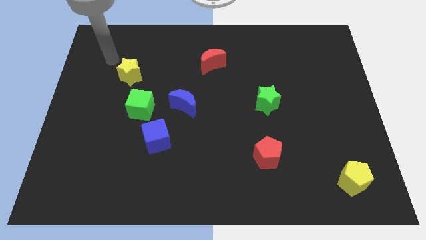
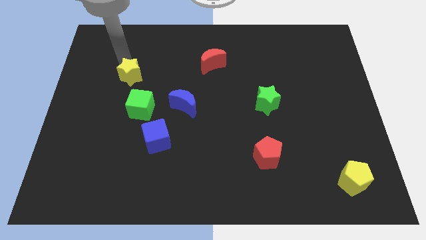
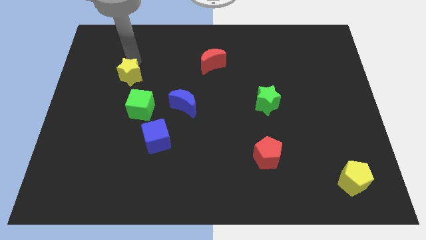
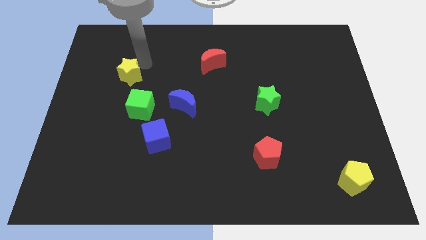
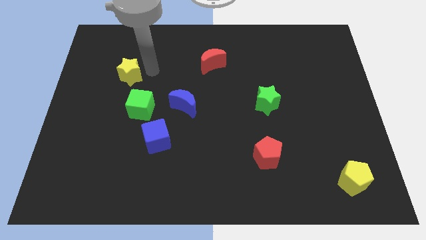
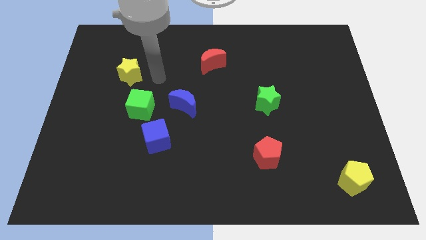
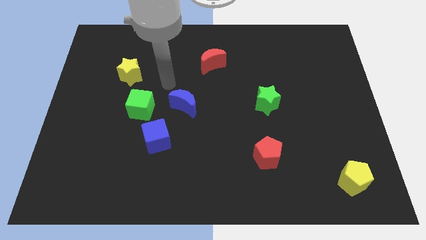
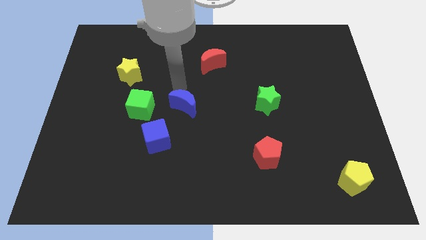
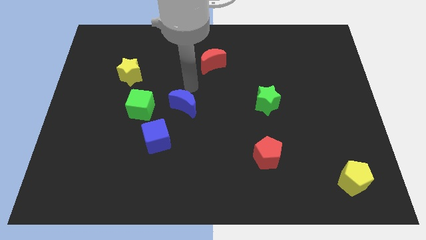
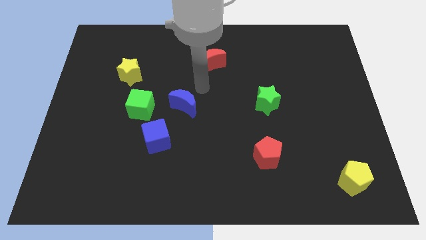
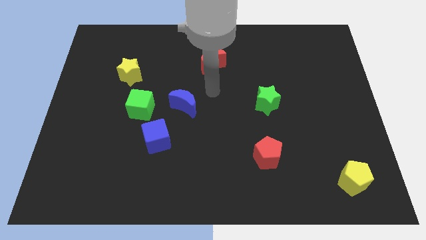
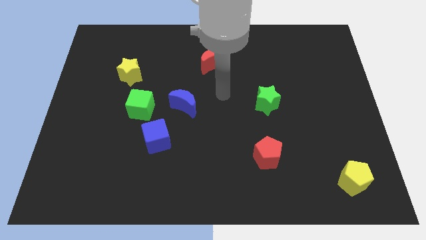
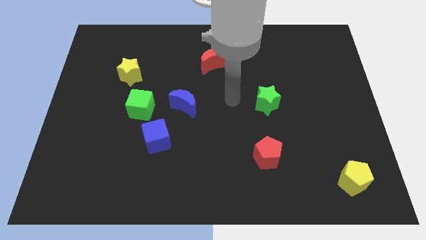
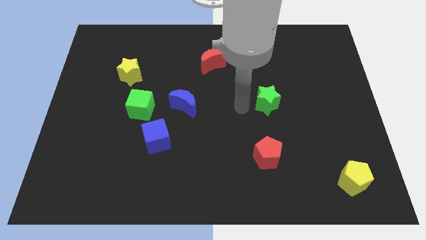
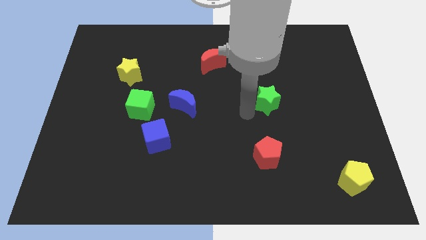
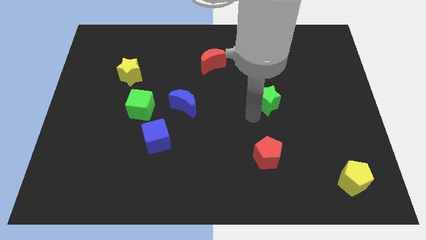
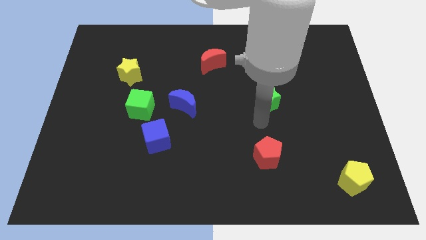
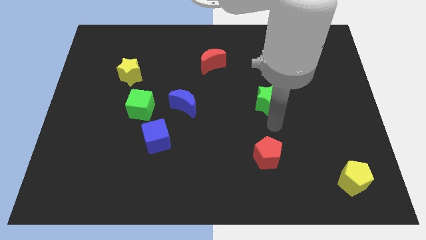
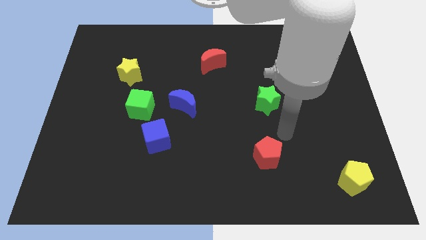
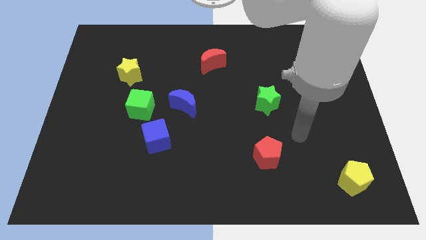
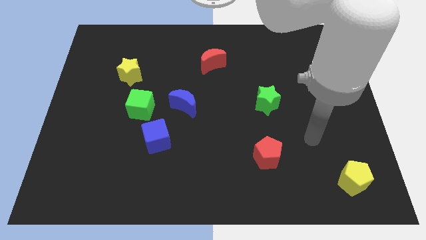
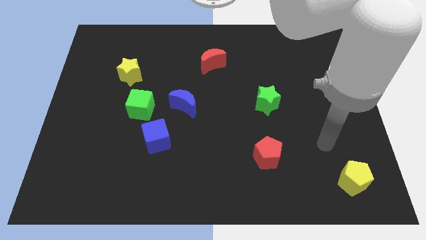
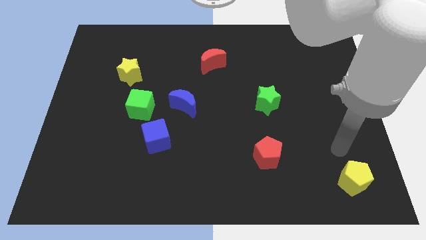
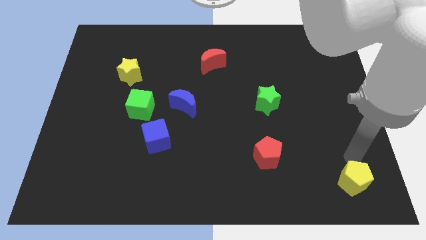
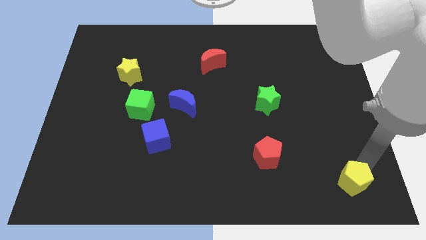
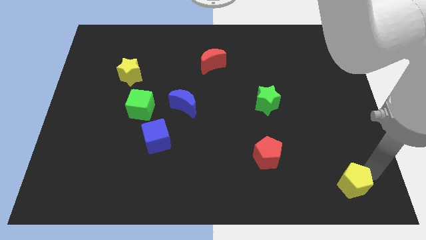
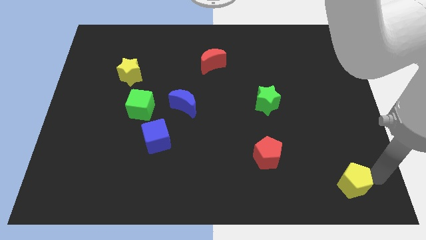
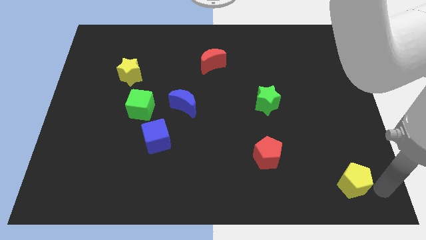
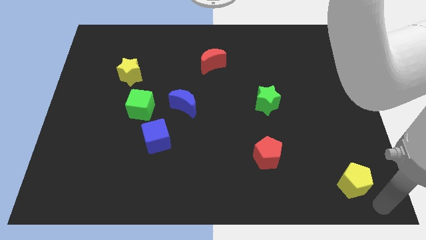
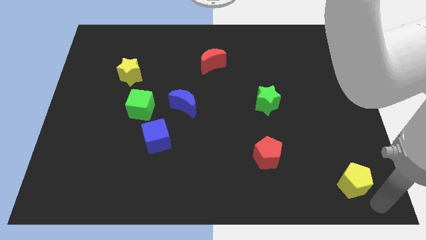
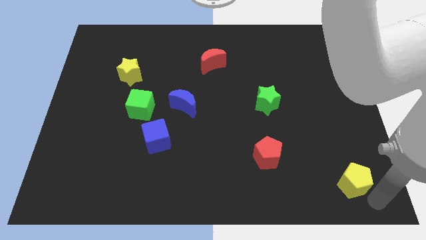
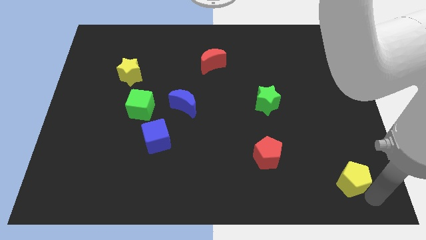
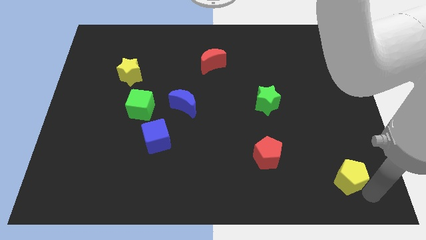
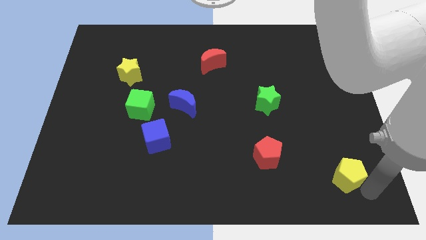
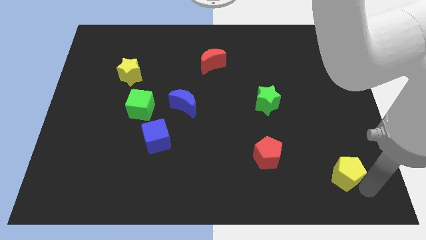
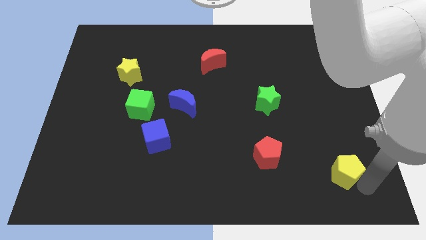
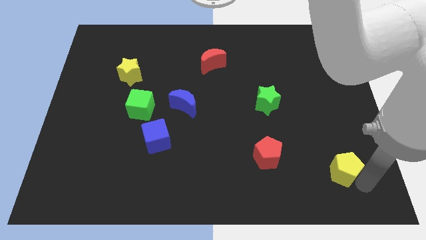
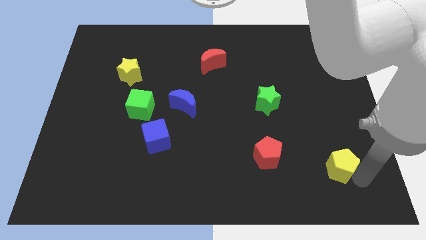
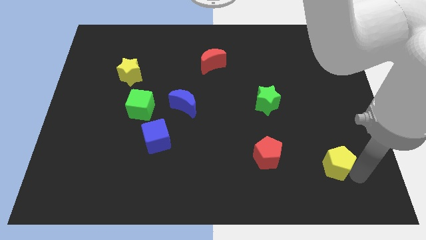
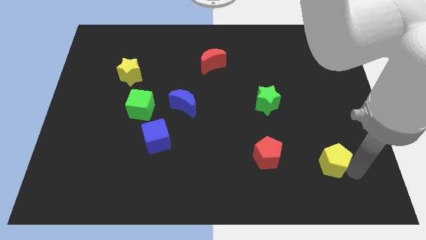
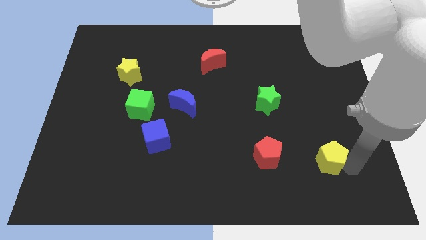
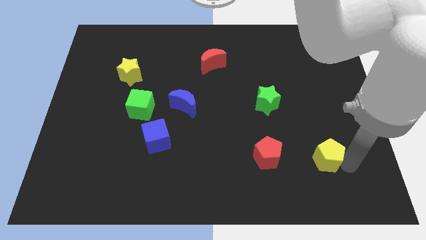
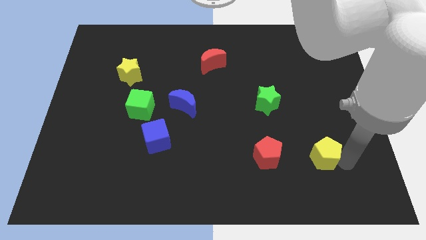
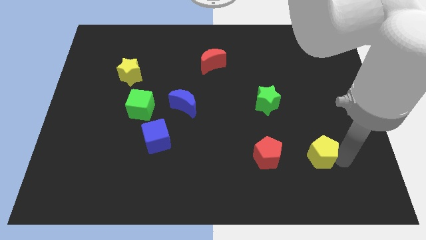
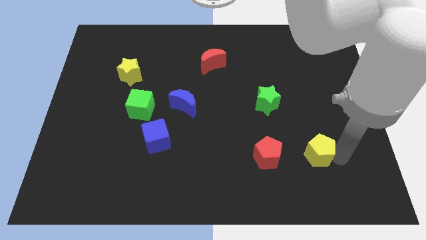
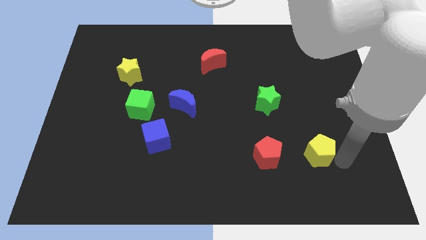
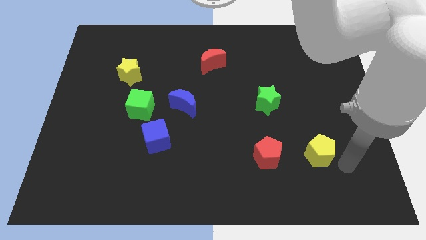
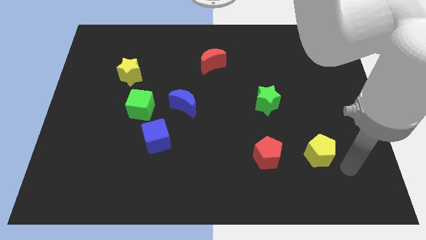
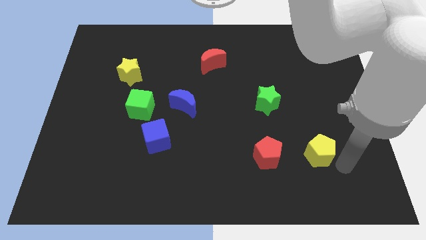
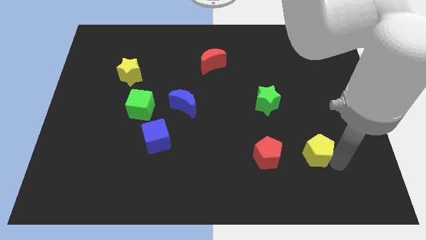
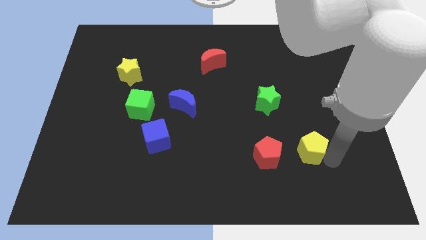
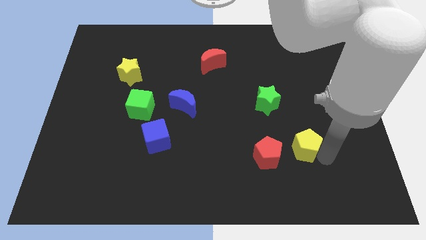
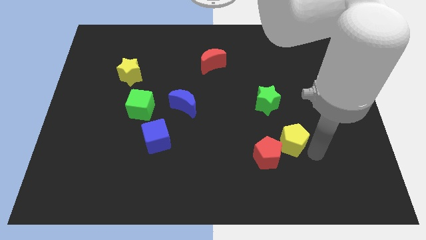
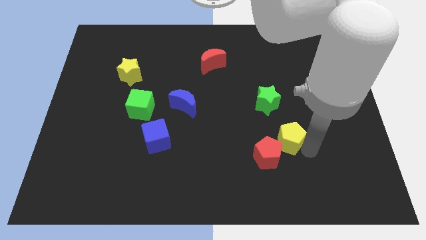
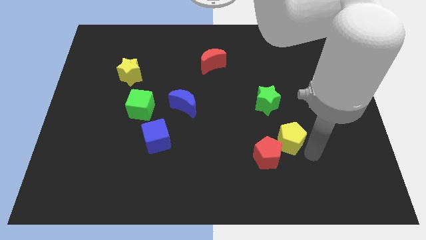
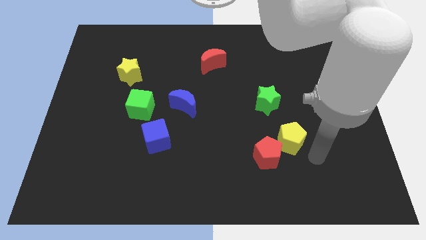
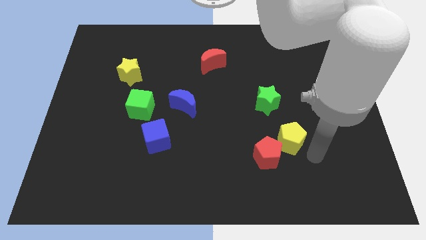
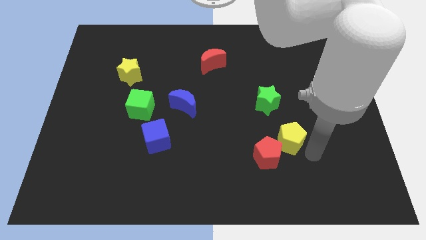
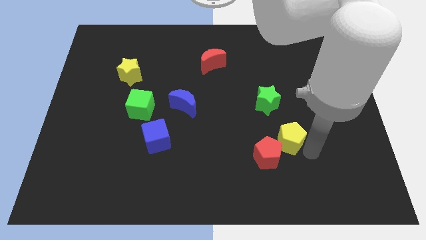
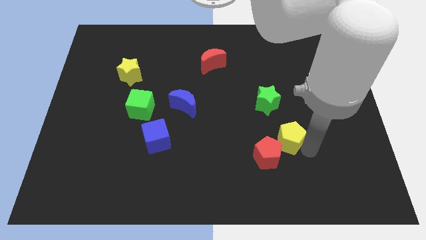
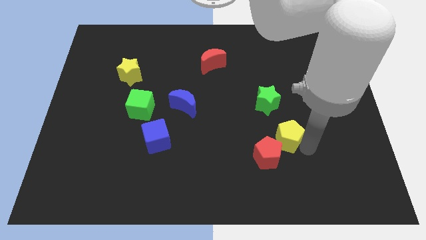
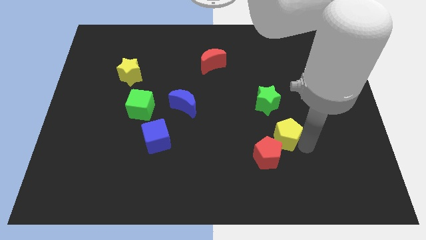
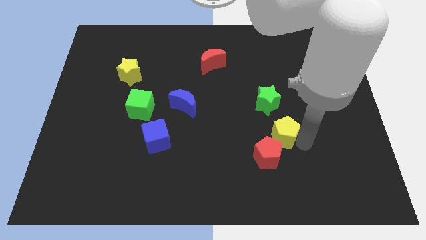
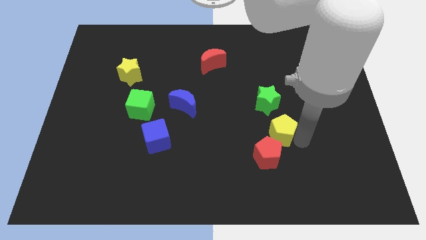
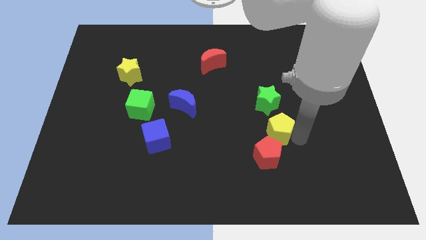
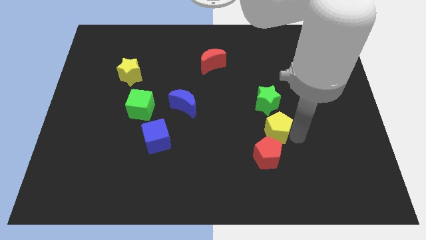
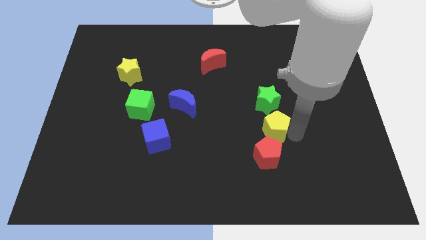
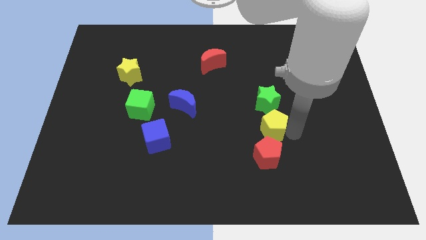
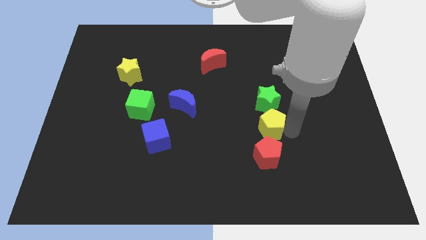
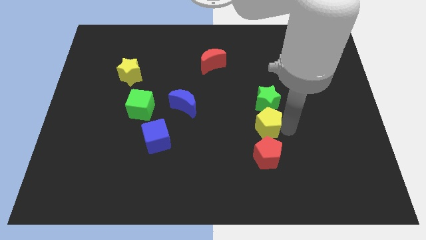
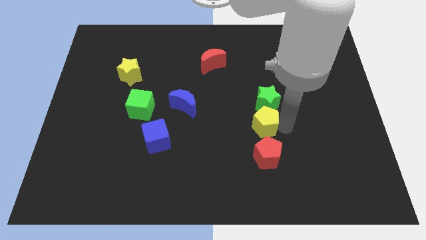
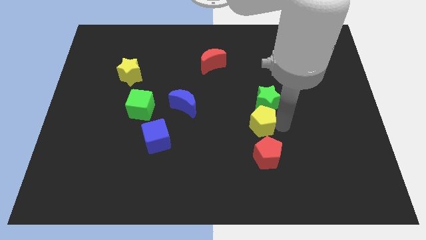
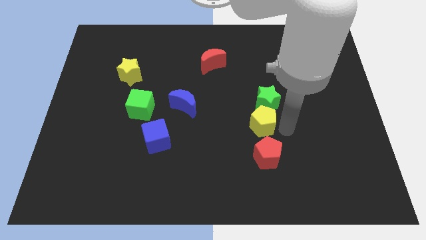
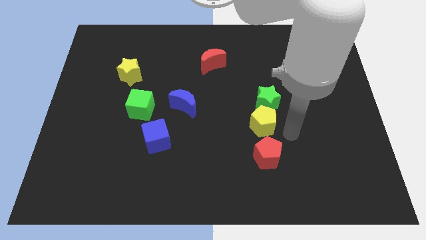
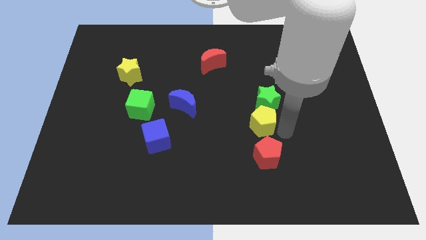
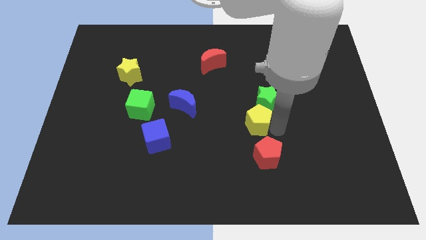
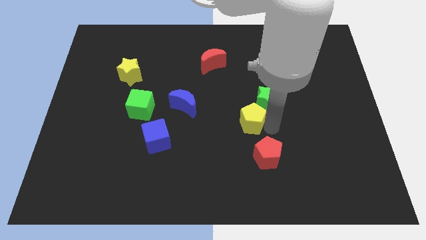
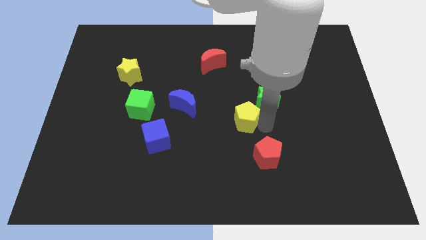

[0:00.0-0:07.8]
put the yellow pentagon to the left side of the green star
